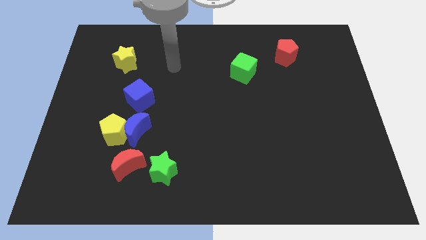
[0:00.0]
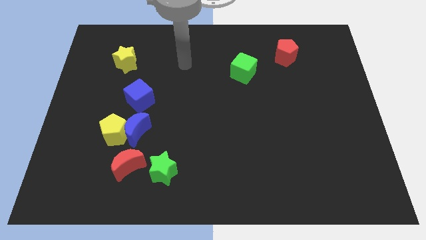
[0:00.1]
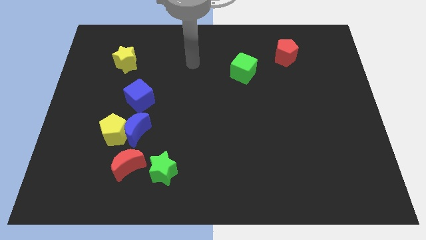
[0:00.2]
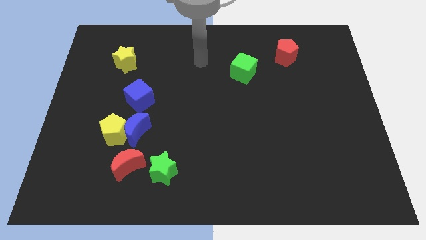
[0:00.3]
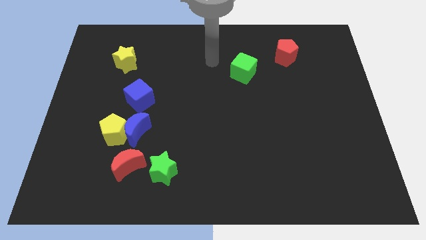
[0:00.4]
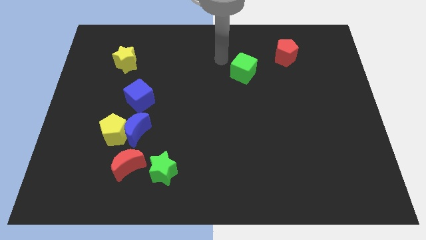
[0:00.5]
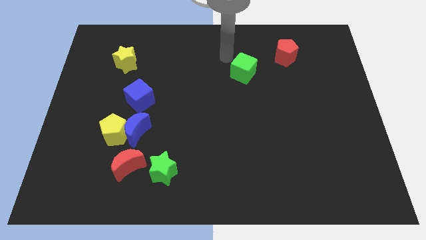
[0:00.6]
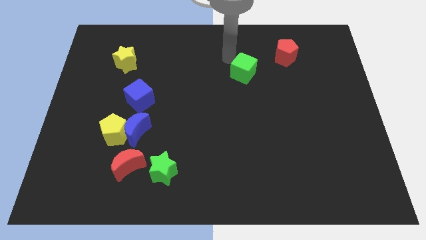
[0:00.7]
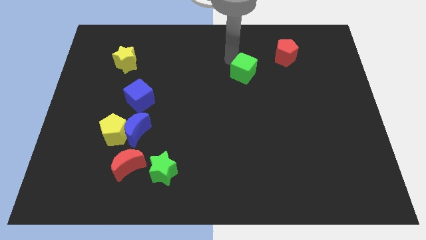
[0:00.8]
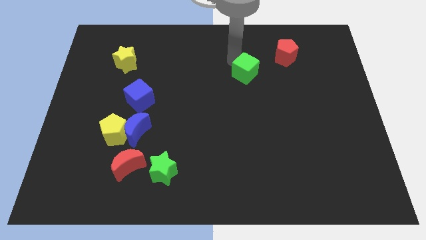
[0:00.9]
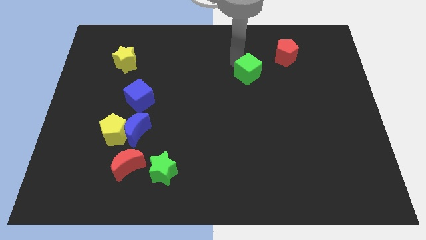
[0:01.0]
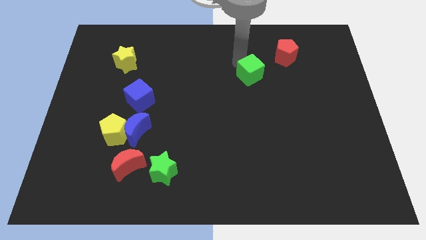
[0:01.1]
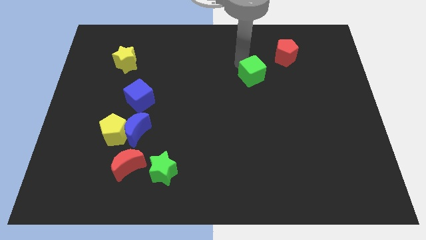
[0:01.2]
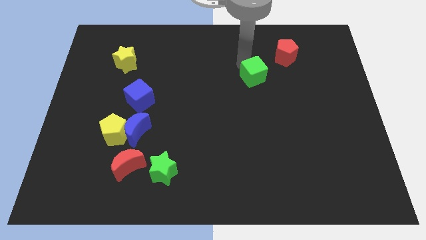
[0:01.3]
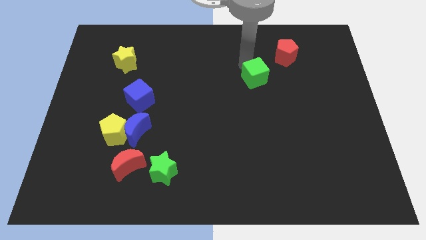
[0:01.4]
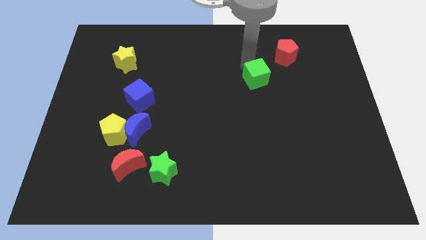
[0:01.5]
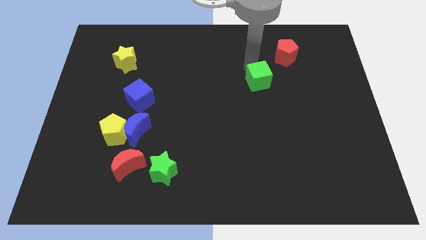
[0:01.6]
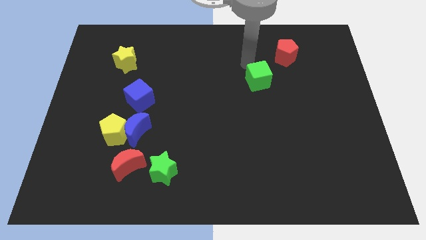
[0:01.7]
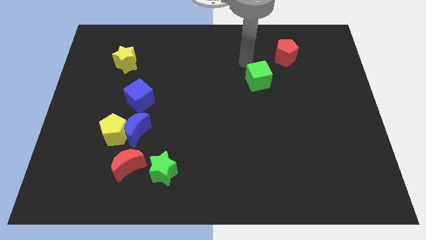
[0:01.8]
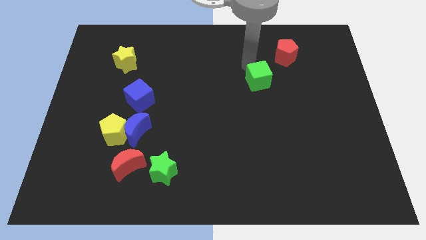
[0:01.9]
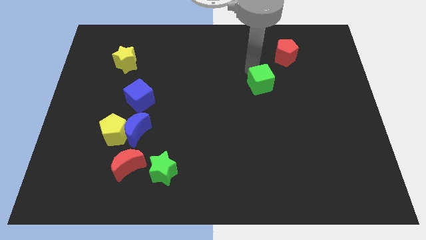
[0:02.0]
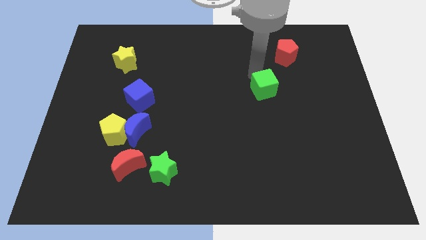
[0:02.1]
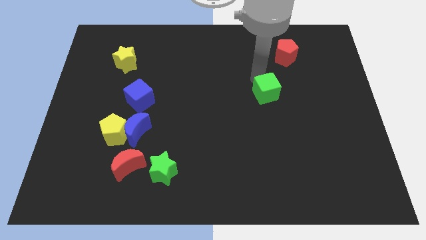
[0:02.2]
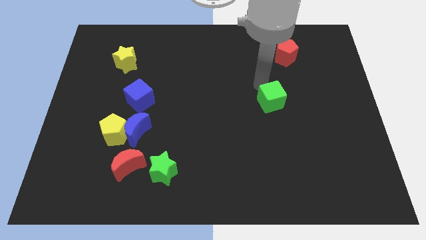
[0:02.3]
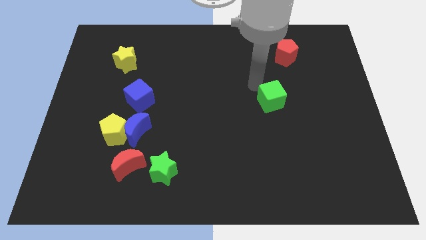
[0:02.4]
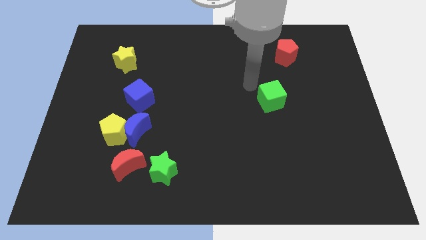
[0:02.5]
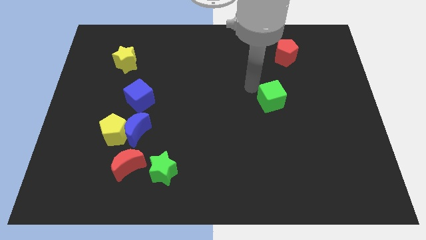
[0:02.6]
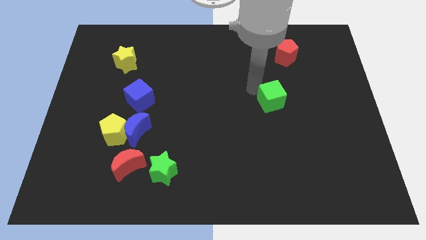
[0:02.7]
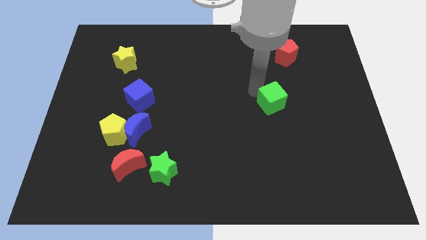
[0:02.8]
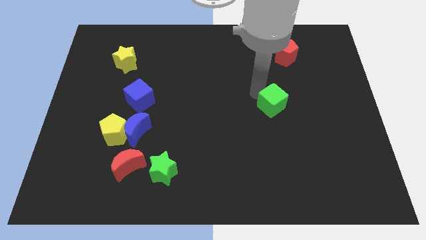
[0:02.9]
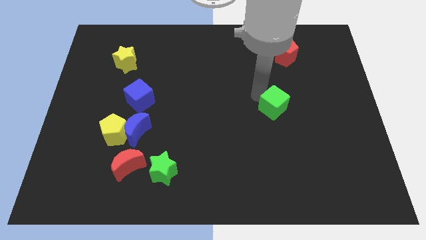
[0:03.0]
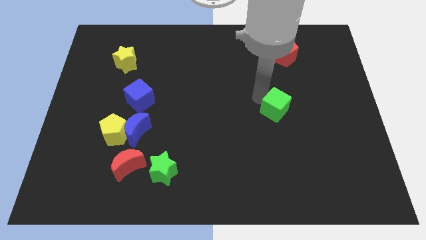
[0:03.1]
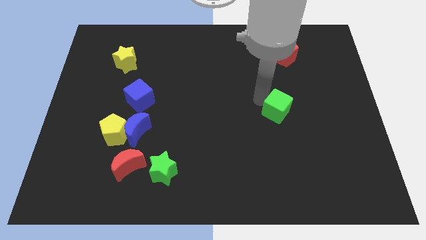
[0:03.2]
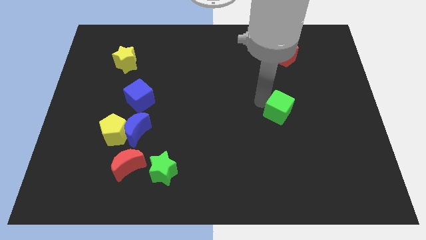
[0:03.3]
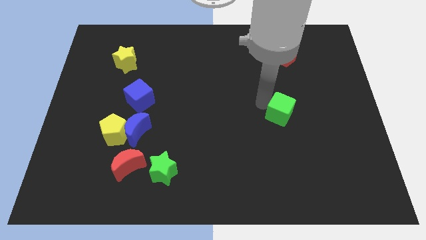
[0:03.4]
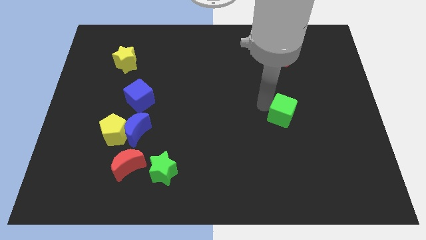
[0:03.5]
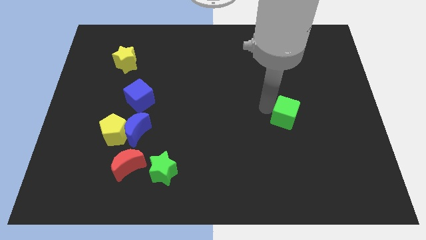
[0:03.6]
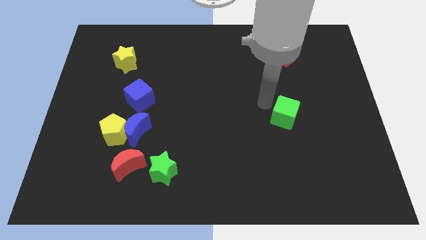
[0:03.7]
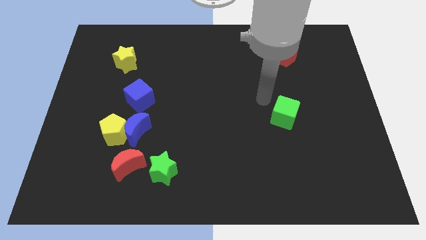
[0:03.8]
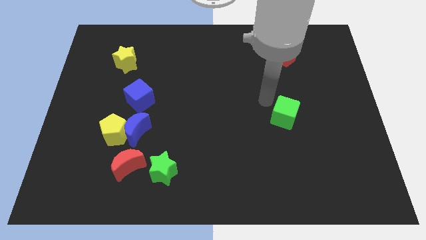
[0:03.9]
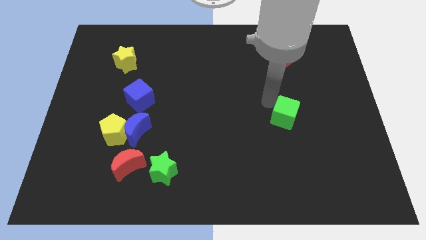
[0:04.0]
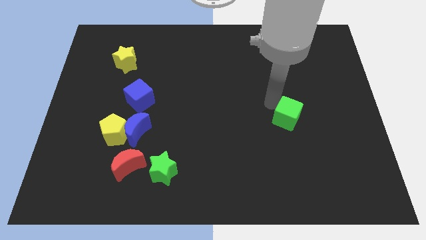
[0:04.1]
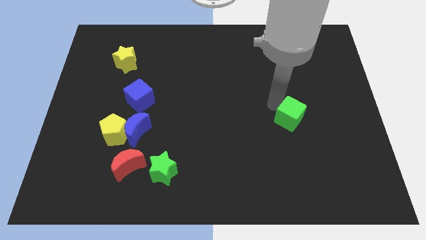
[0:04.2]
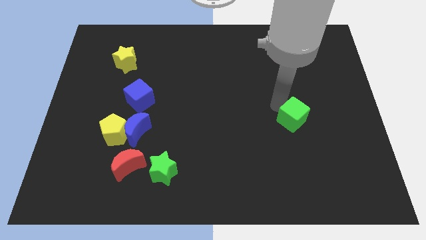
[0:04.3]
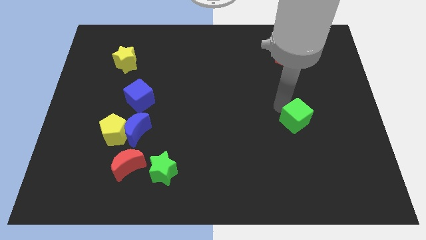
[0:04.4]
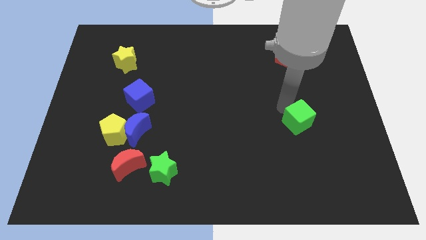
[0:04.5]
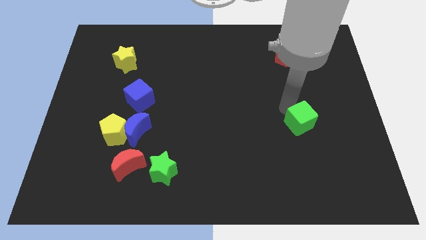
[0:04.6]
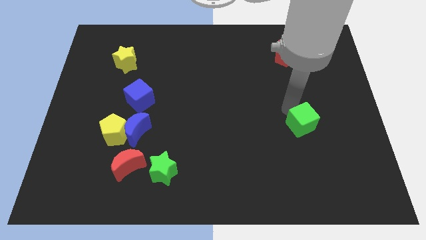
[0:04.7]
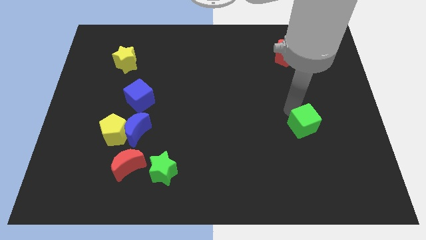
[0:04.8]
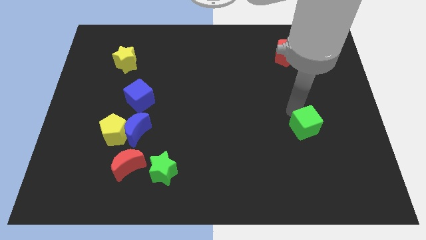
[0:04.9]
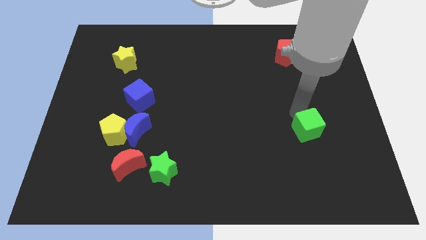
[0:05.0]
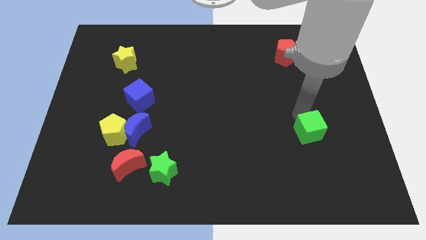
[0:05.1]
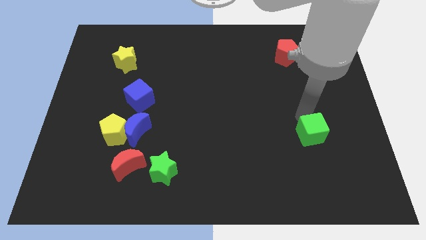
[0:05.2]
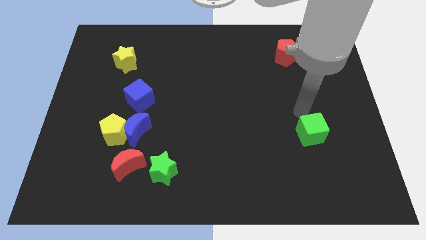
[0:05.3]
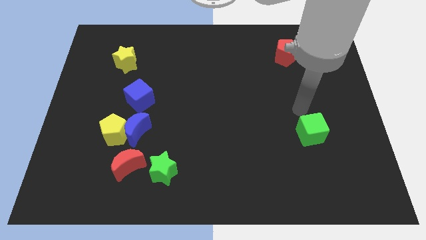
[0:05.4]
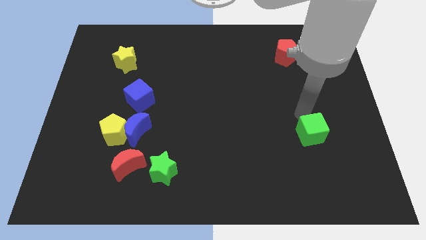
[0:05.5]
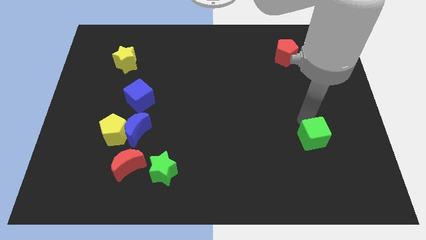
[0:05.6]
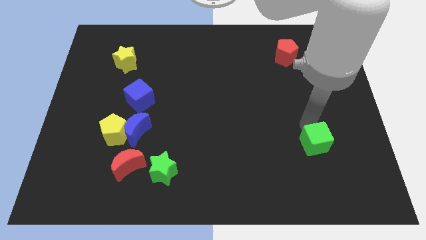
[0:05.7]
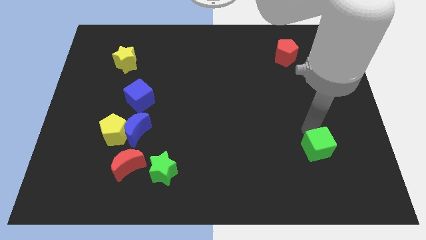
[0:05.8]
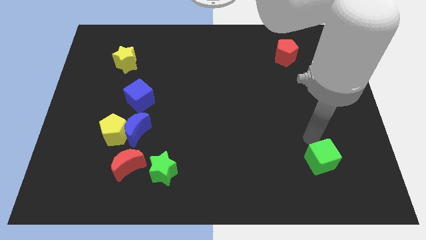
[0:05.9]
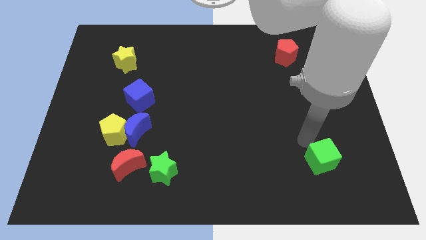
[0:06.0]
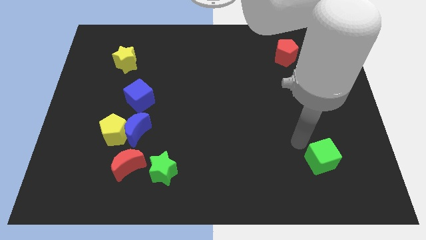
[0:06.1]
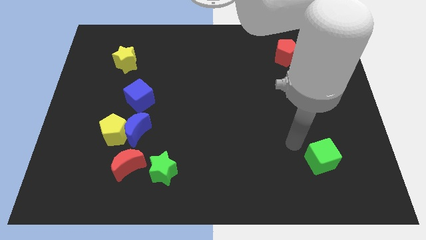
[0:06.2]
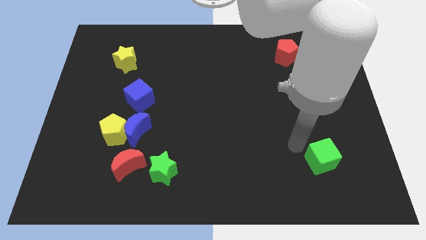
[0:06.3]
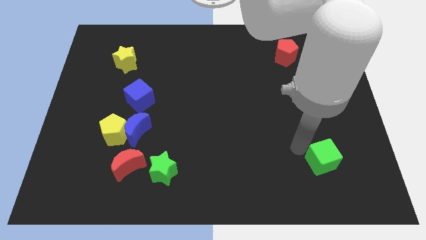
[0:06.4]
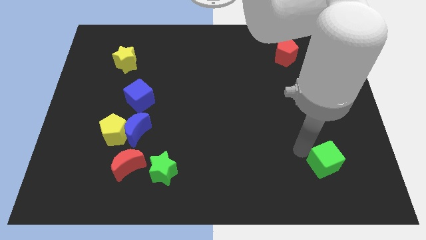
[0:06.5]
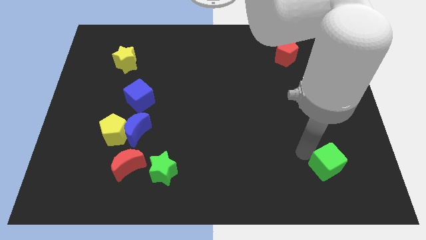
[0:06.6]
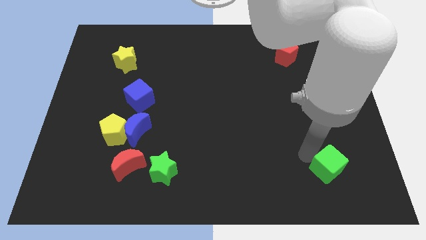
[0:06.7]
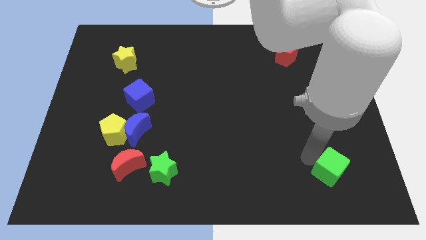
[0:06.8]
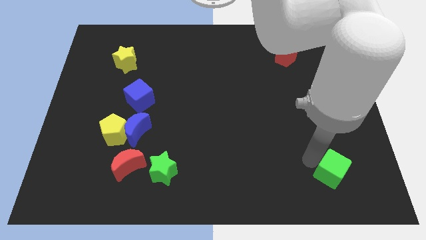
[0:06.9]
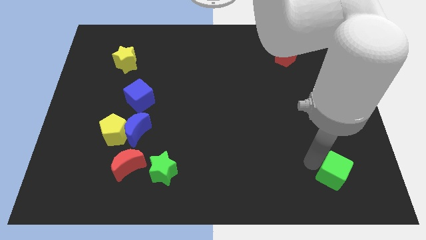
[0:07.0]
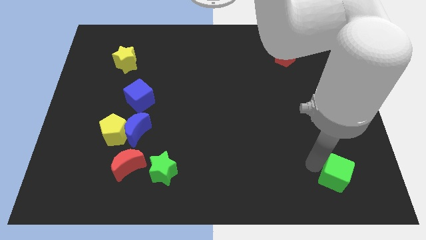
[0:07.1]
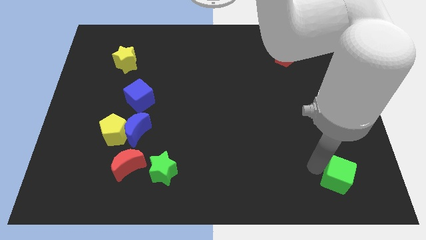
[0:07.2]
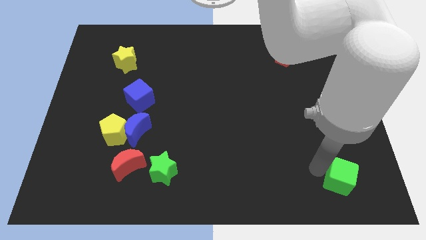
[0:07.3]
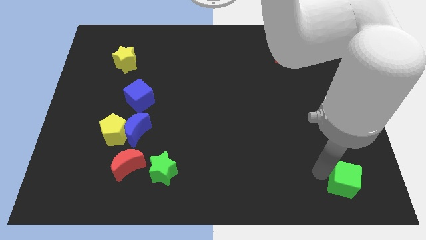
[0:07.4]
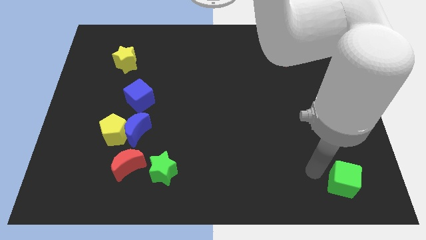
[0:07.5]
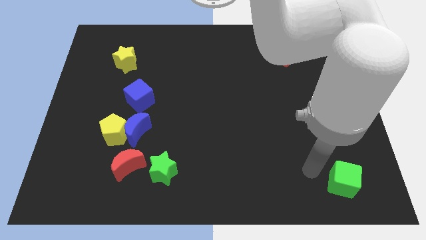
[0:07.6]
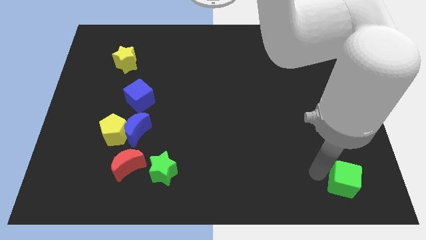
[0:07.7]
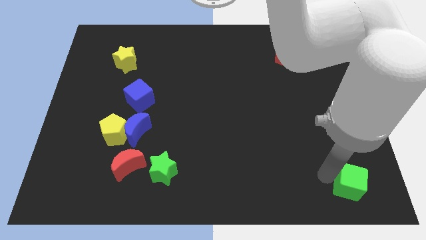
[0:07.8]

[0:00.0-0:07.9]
slide the green cube to the lower right corner
